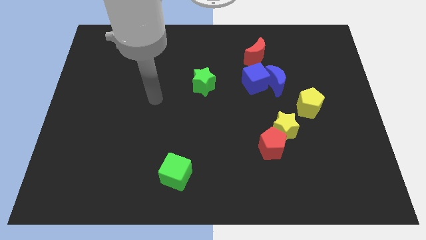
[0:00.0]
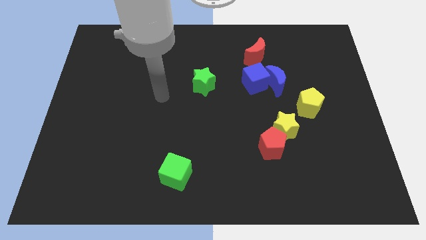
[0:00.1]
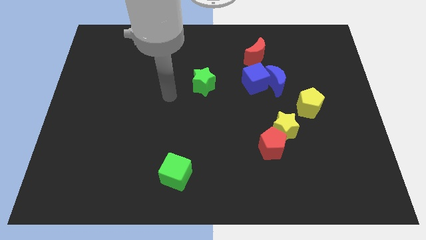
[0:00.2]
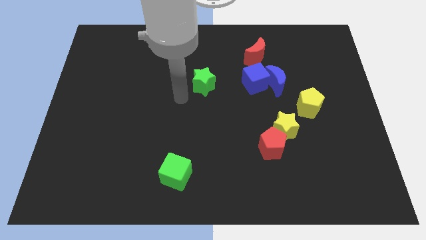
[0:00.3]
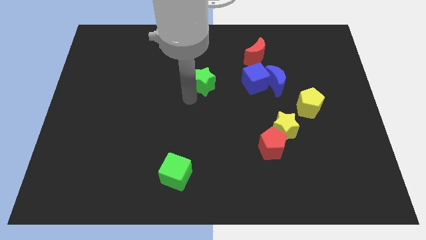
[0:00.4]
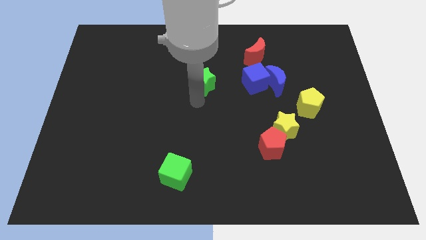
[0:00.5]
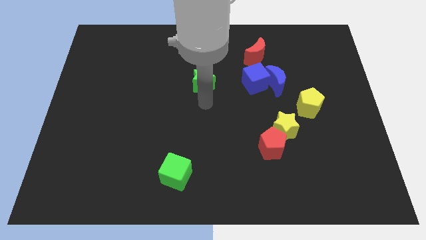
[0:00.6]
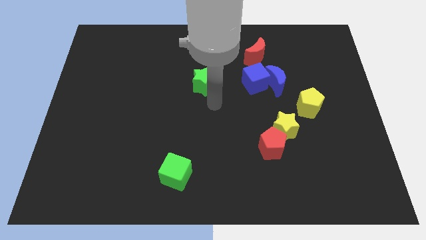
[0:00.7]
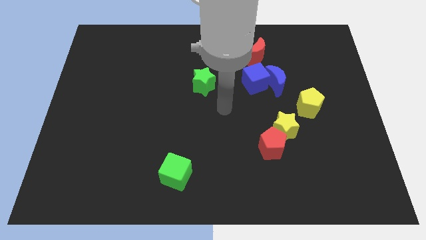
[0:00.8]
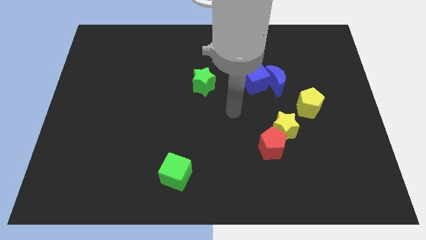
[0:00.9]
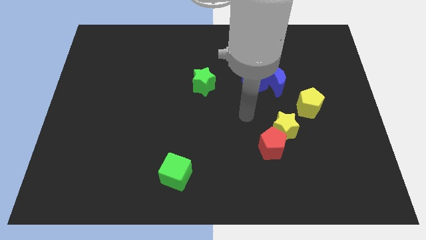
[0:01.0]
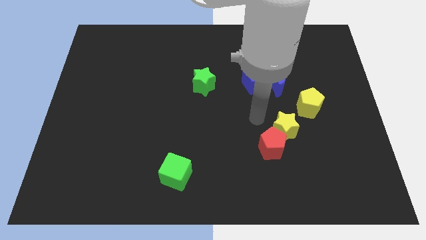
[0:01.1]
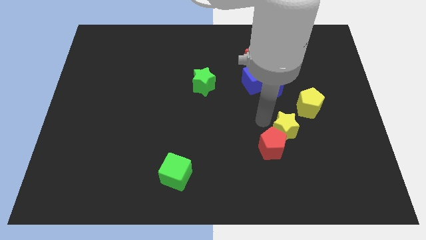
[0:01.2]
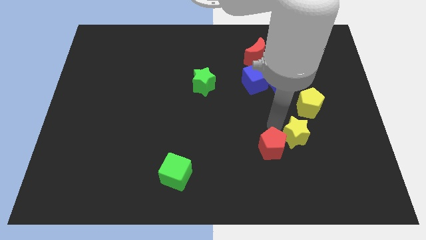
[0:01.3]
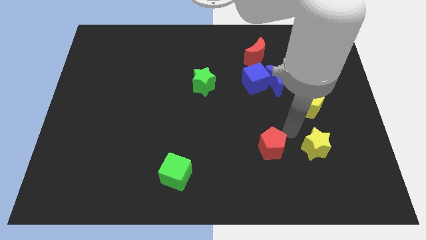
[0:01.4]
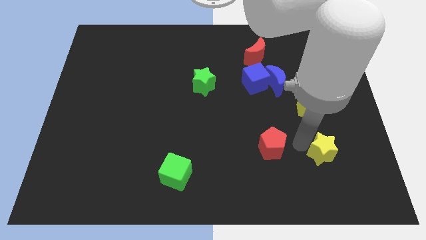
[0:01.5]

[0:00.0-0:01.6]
pull the red pentagon apart from the yellow star

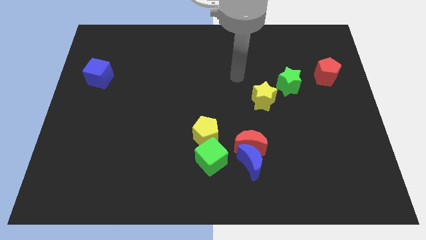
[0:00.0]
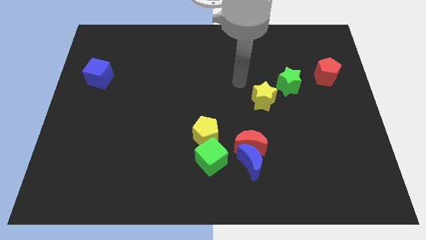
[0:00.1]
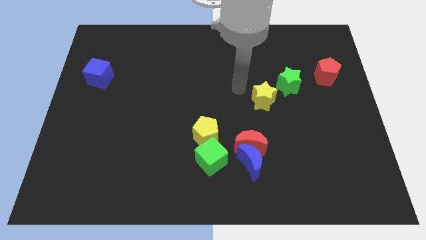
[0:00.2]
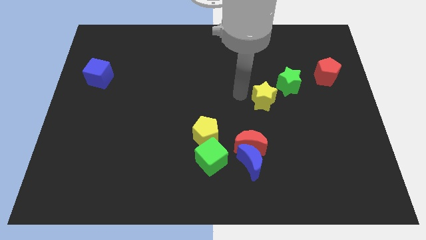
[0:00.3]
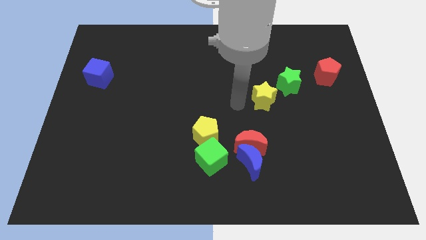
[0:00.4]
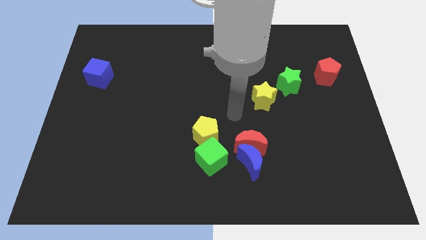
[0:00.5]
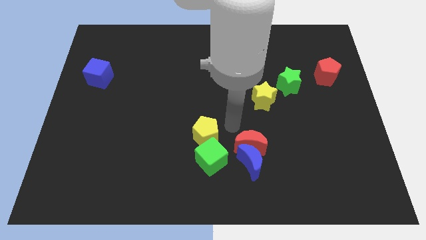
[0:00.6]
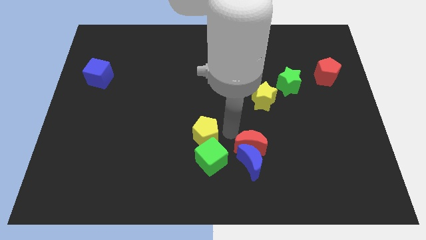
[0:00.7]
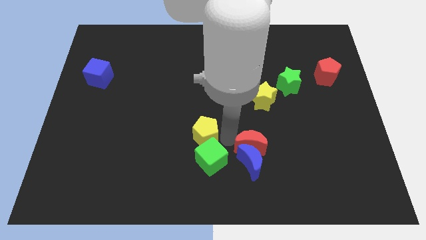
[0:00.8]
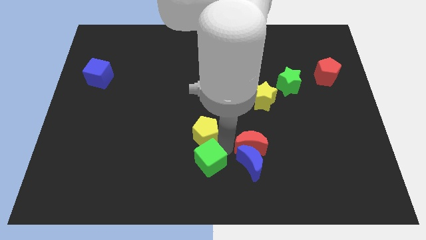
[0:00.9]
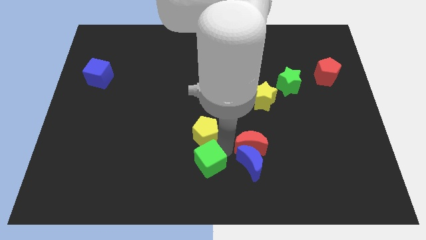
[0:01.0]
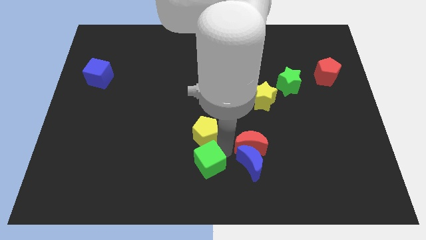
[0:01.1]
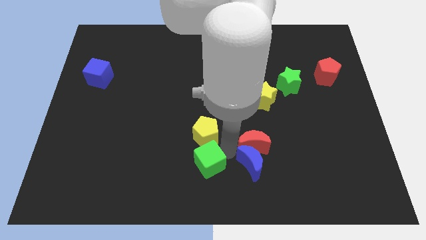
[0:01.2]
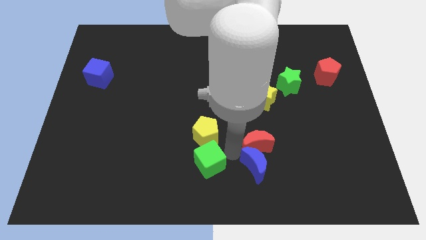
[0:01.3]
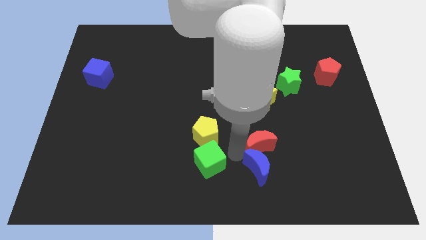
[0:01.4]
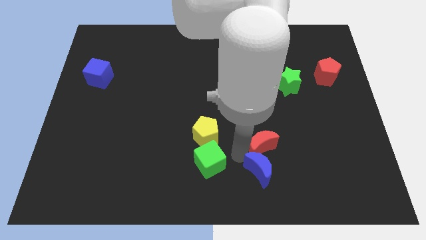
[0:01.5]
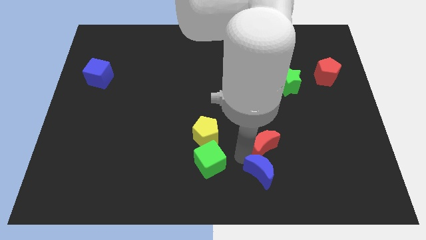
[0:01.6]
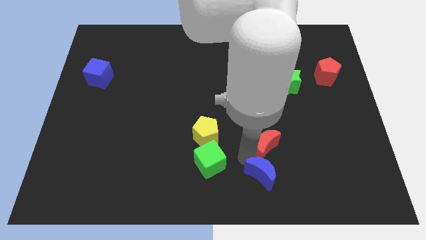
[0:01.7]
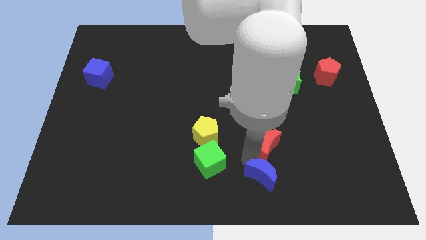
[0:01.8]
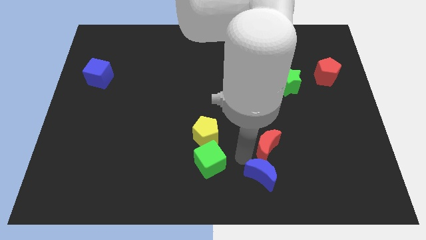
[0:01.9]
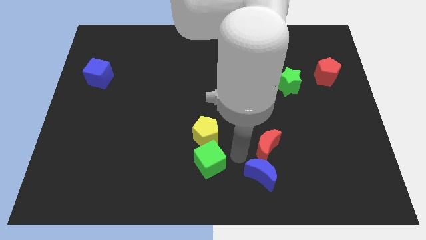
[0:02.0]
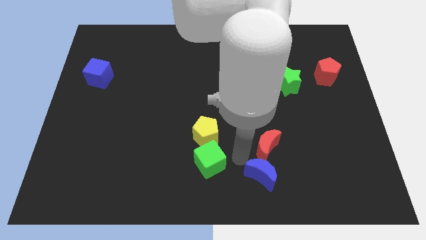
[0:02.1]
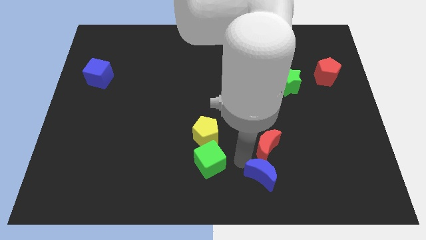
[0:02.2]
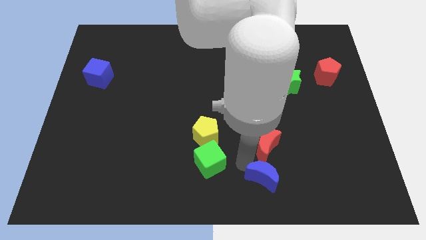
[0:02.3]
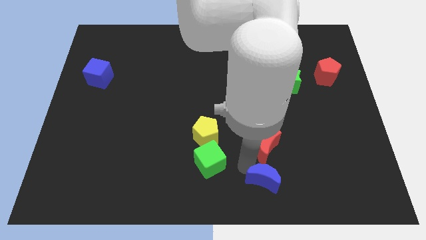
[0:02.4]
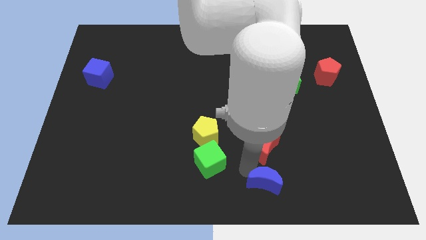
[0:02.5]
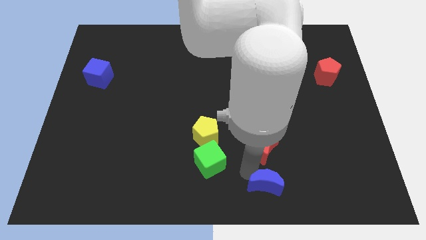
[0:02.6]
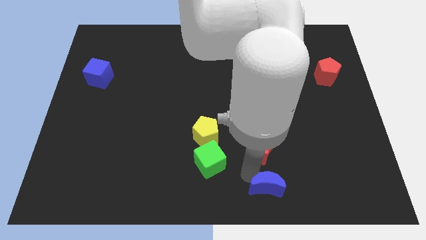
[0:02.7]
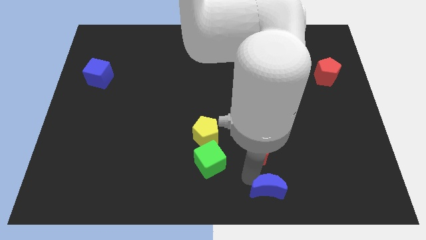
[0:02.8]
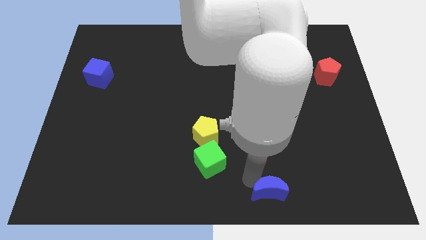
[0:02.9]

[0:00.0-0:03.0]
move the blue moon away from the red moon and green cube

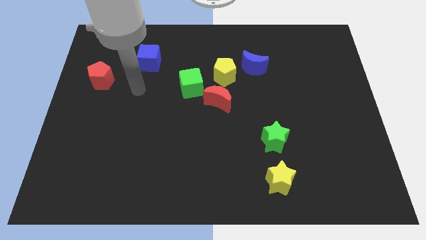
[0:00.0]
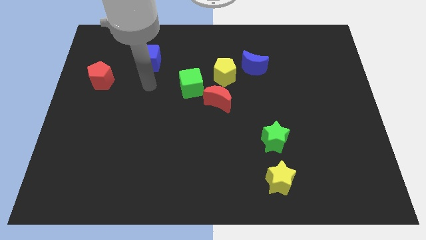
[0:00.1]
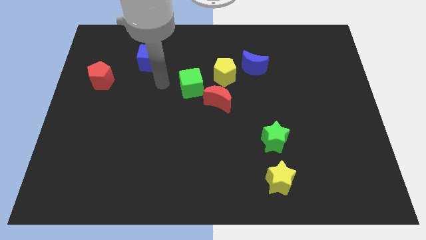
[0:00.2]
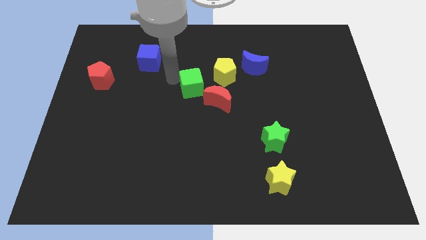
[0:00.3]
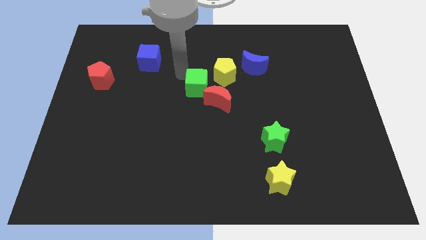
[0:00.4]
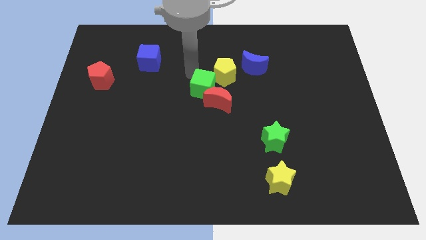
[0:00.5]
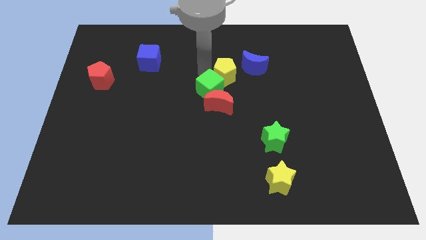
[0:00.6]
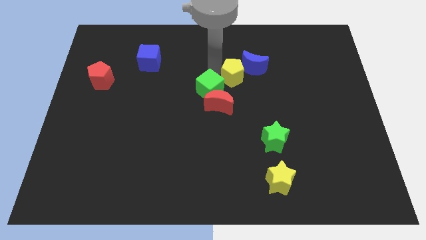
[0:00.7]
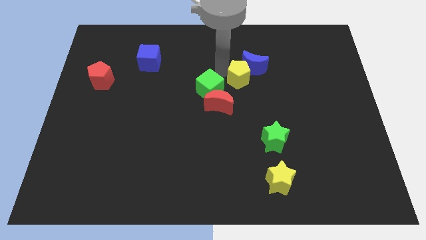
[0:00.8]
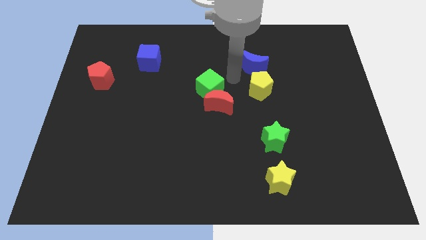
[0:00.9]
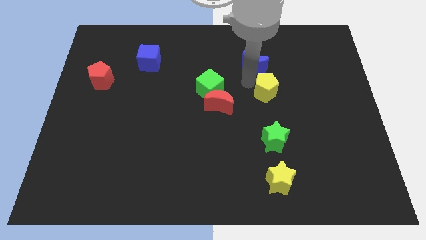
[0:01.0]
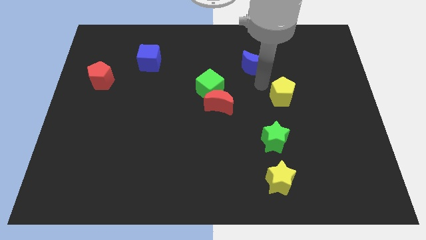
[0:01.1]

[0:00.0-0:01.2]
separate the blue moon from the yellow pentagon

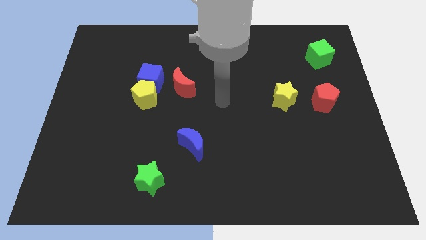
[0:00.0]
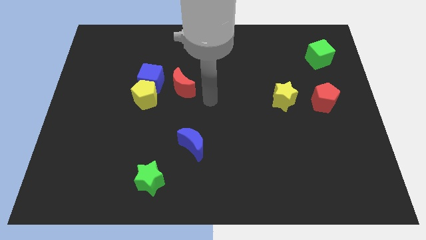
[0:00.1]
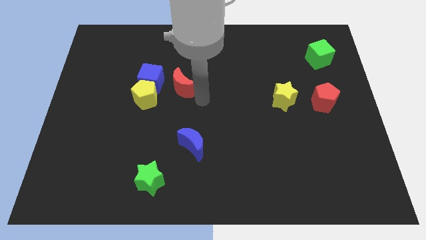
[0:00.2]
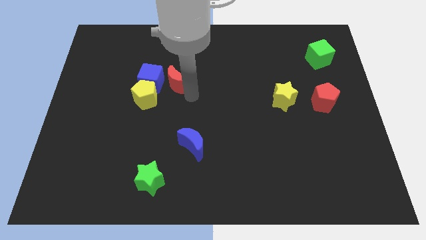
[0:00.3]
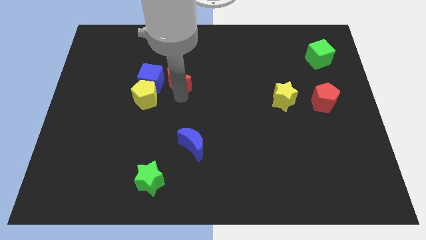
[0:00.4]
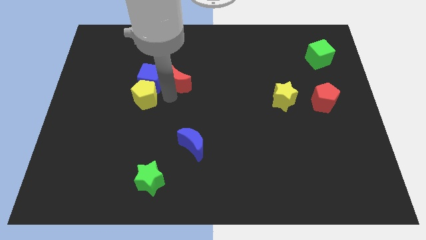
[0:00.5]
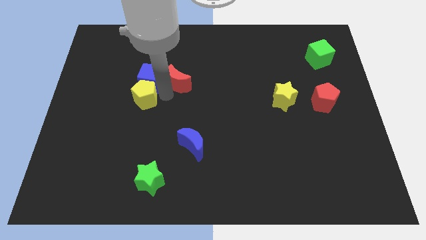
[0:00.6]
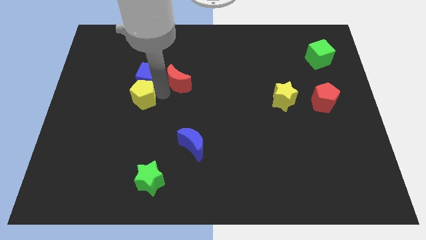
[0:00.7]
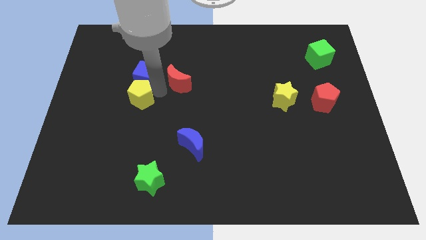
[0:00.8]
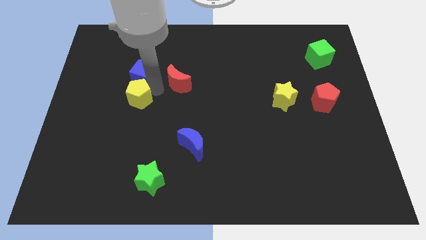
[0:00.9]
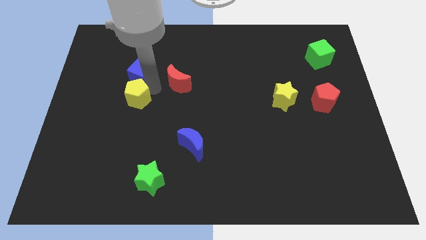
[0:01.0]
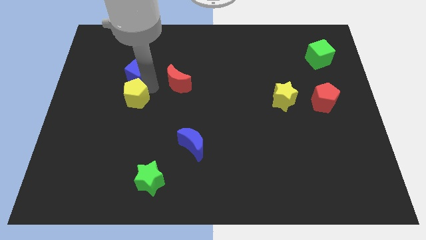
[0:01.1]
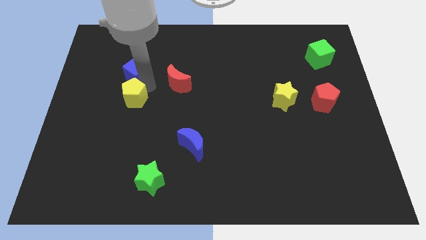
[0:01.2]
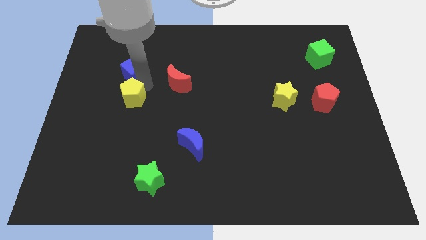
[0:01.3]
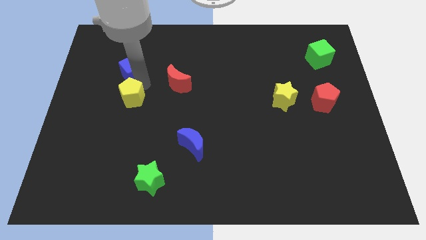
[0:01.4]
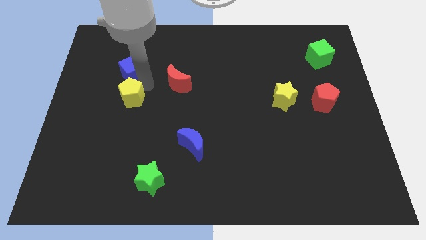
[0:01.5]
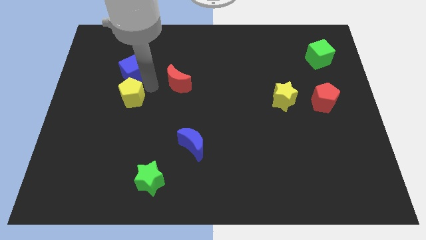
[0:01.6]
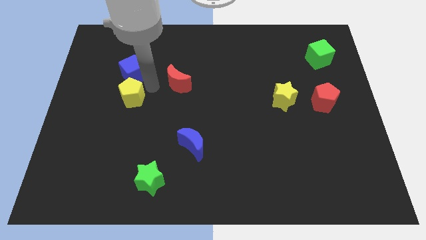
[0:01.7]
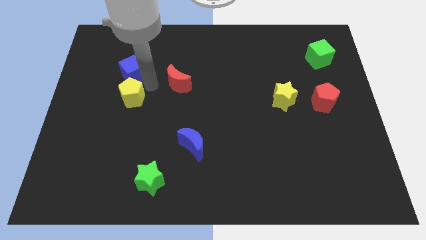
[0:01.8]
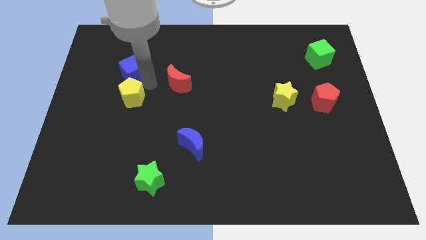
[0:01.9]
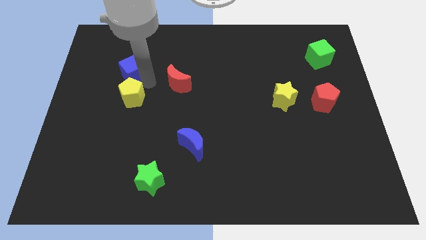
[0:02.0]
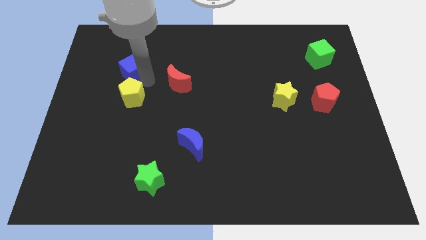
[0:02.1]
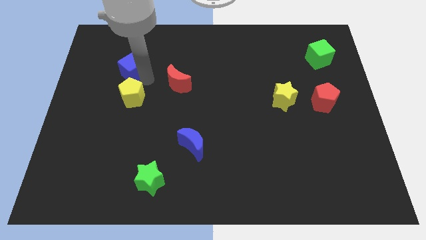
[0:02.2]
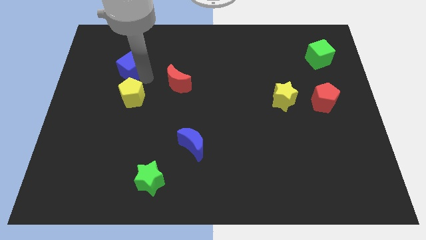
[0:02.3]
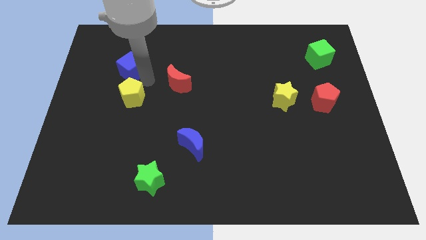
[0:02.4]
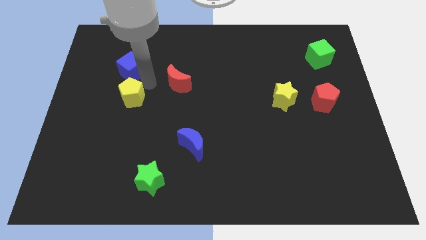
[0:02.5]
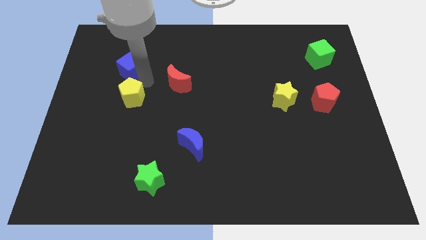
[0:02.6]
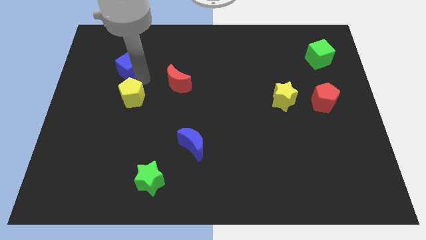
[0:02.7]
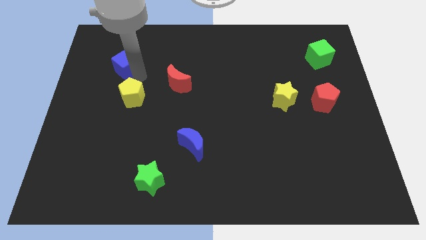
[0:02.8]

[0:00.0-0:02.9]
move the blue cube away from the yellow pentagon and red moon

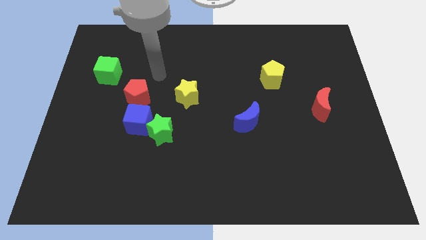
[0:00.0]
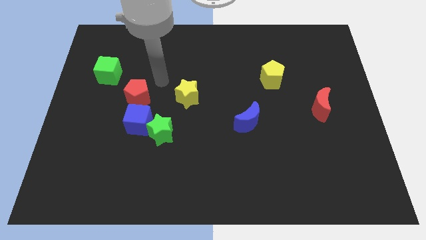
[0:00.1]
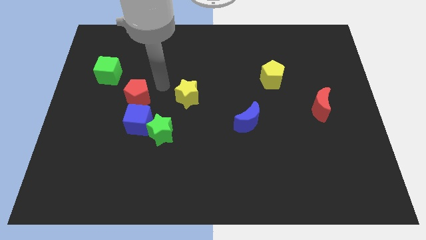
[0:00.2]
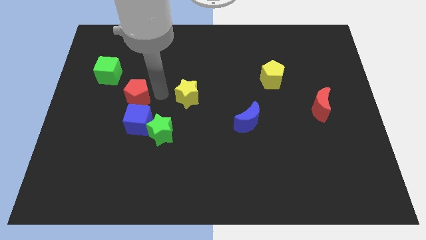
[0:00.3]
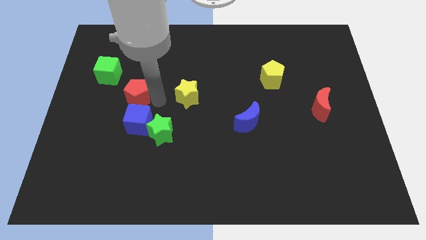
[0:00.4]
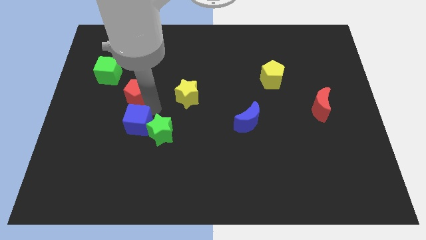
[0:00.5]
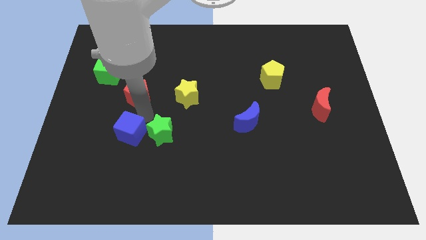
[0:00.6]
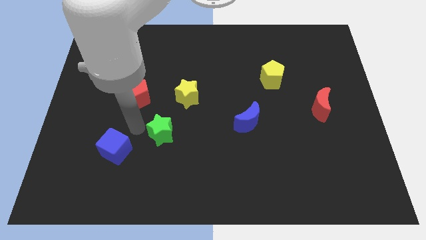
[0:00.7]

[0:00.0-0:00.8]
separate the green star from the blue cube
